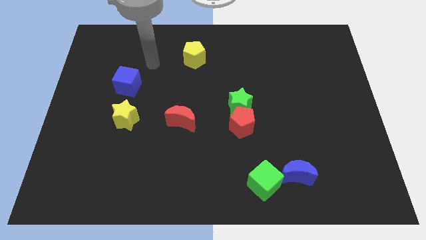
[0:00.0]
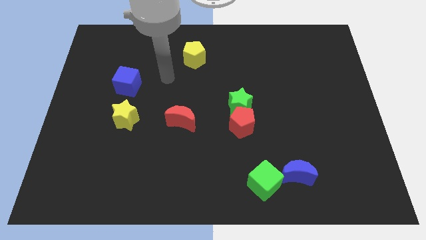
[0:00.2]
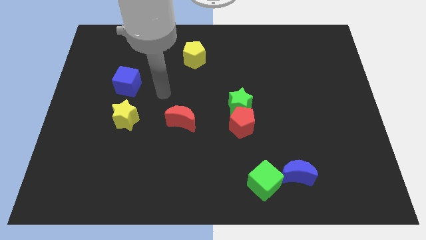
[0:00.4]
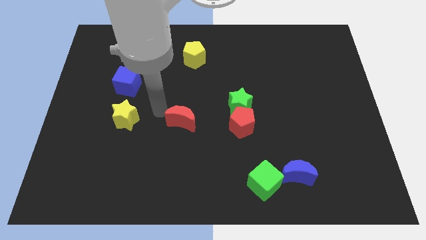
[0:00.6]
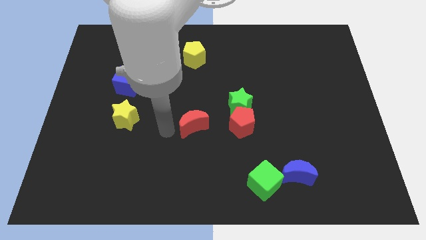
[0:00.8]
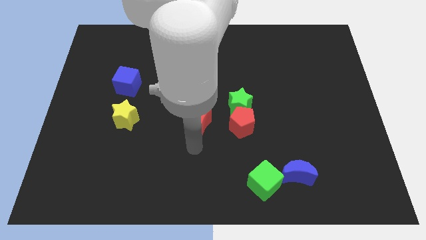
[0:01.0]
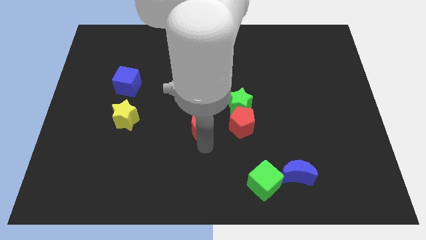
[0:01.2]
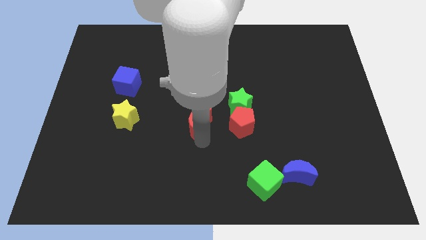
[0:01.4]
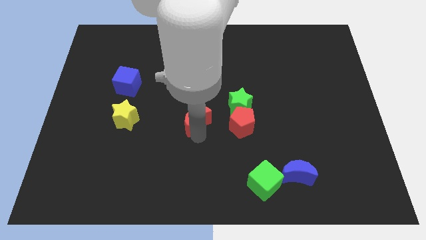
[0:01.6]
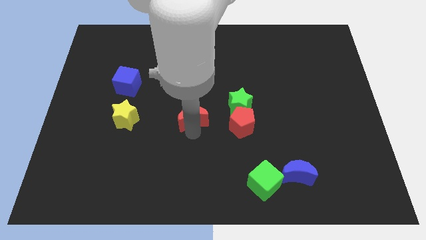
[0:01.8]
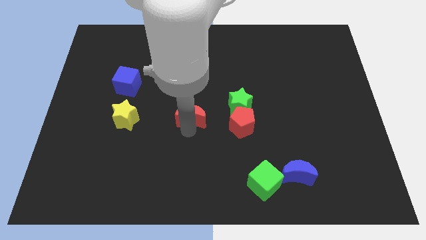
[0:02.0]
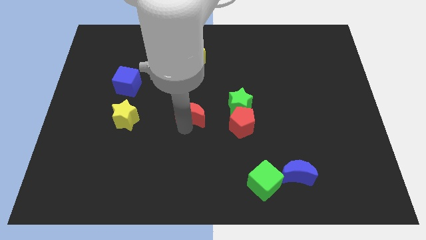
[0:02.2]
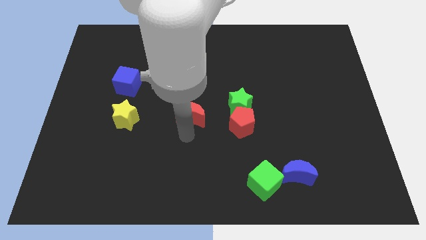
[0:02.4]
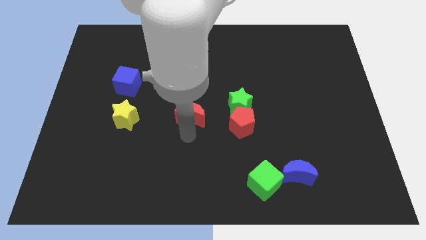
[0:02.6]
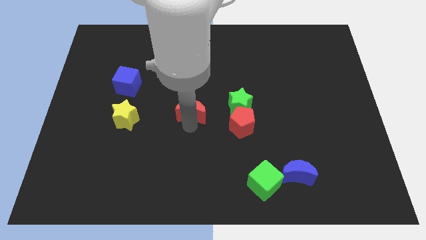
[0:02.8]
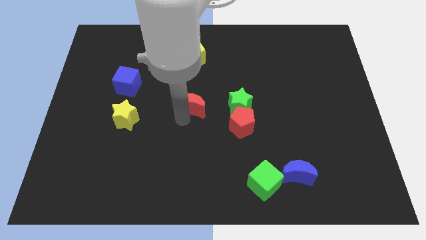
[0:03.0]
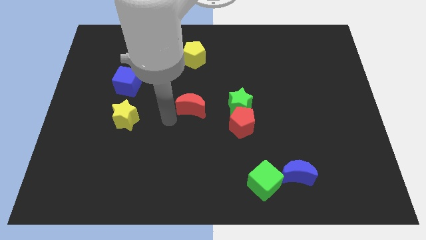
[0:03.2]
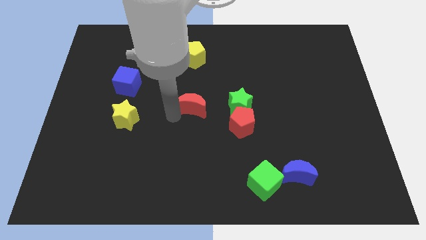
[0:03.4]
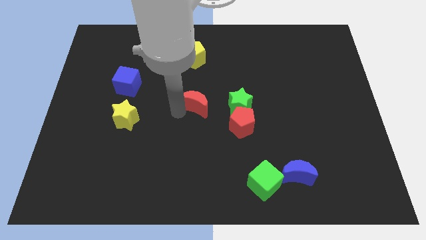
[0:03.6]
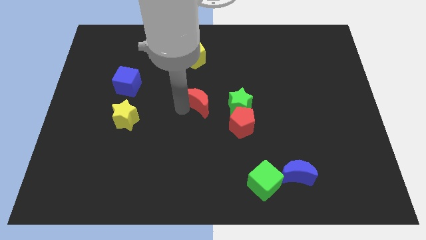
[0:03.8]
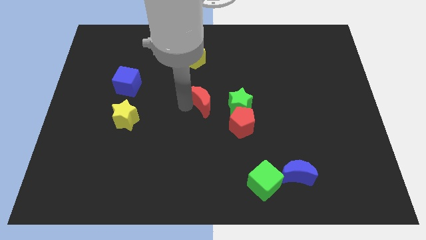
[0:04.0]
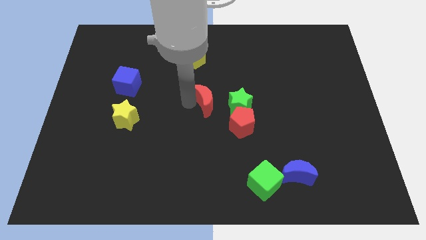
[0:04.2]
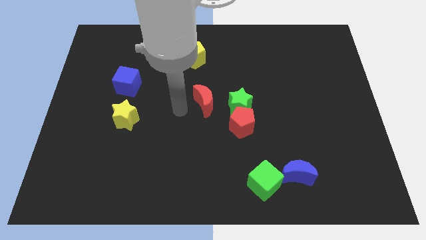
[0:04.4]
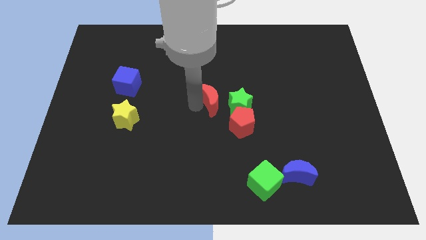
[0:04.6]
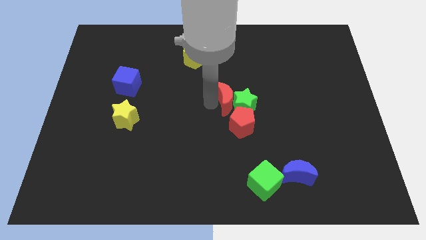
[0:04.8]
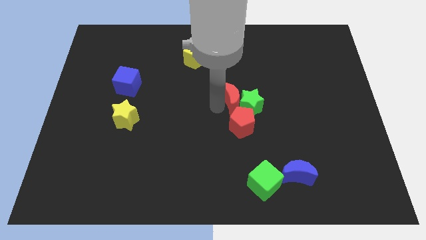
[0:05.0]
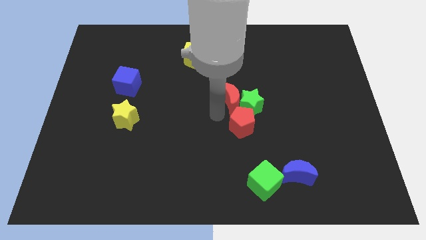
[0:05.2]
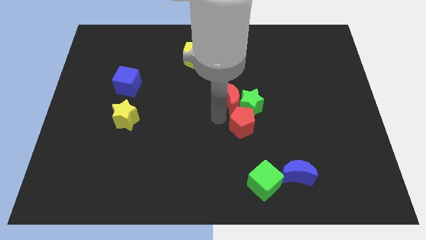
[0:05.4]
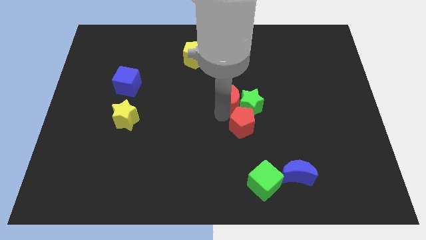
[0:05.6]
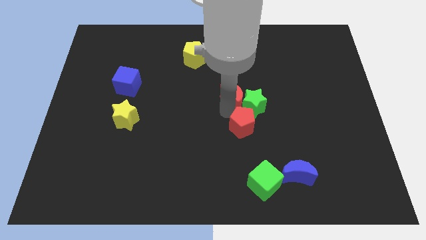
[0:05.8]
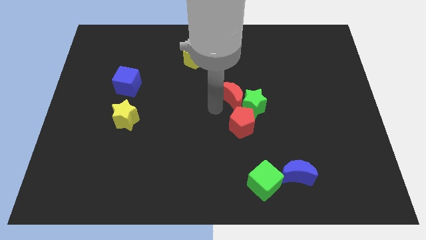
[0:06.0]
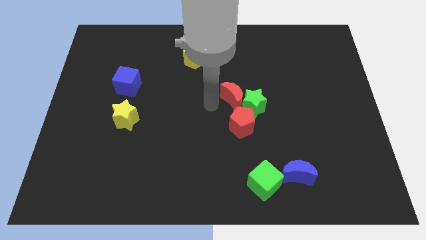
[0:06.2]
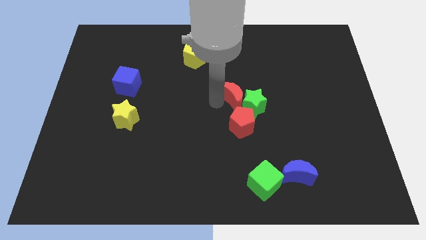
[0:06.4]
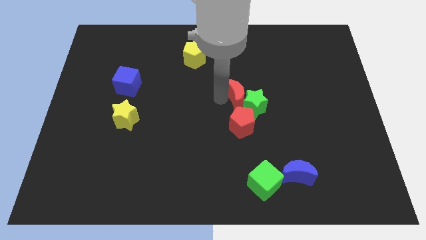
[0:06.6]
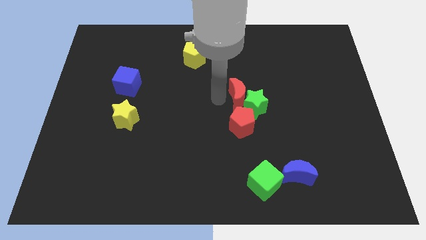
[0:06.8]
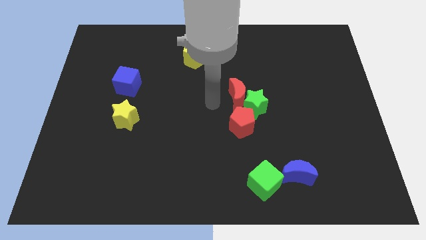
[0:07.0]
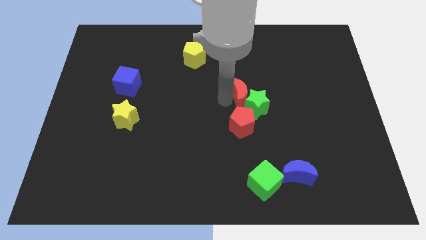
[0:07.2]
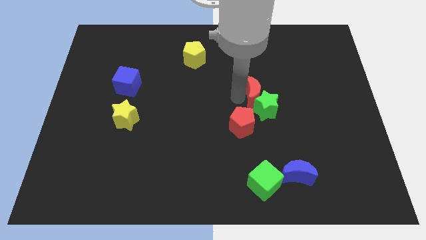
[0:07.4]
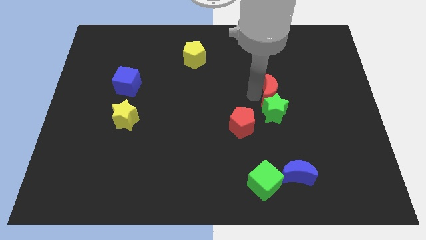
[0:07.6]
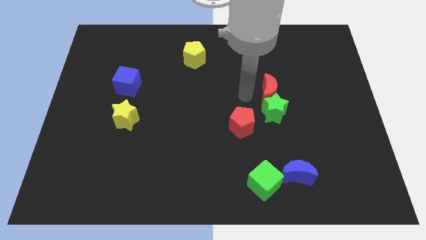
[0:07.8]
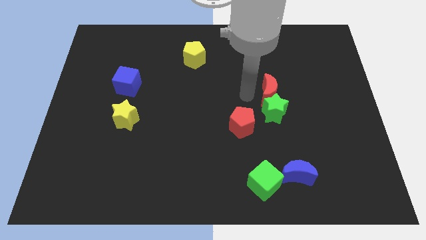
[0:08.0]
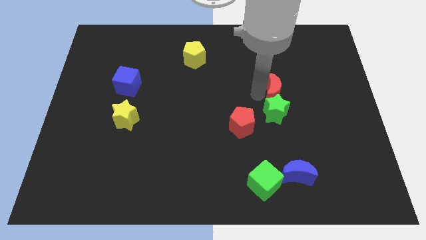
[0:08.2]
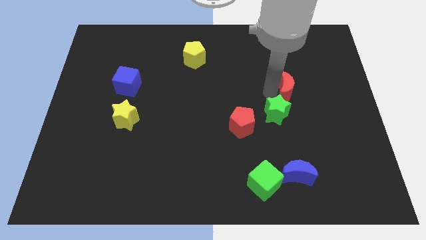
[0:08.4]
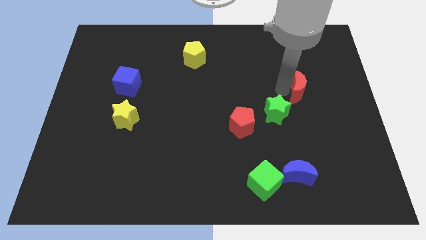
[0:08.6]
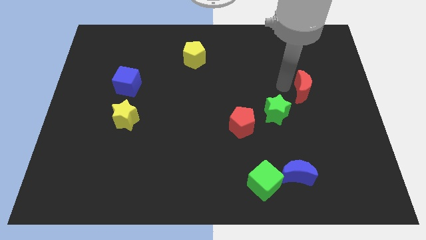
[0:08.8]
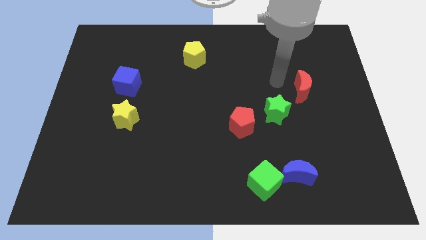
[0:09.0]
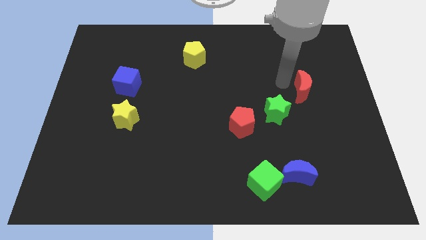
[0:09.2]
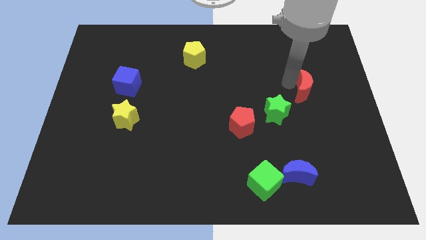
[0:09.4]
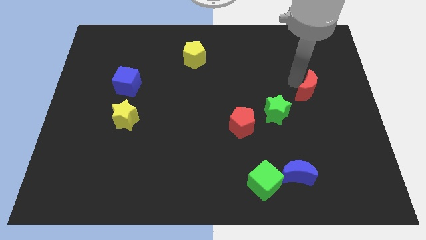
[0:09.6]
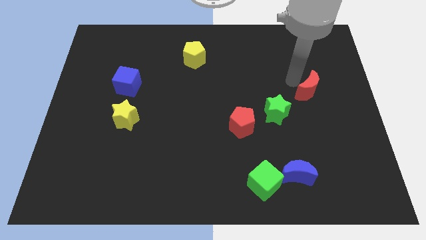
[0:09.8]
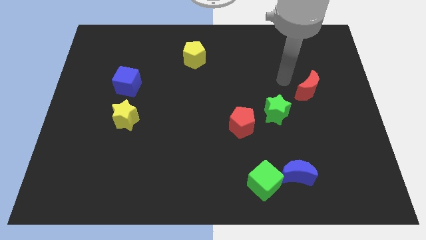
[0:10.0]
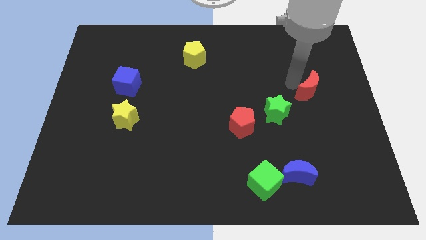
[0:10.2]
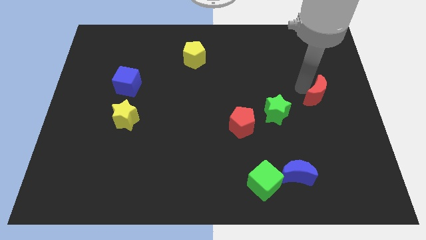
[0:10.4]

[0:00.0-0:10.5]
slide the red moon to the right side of the board

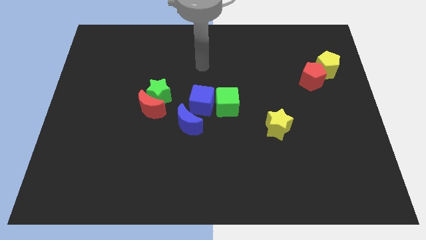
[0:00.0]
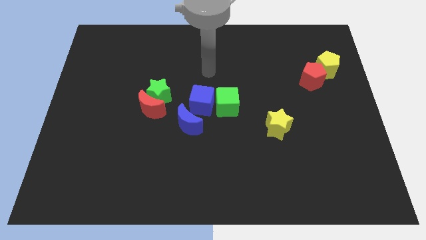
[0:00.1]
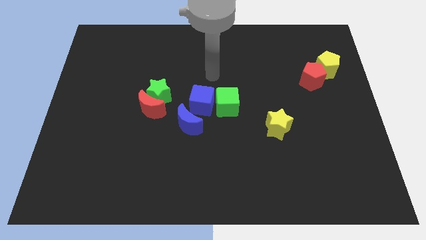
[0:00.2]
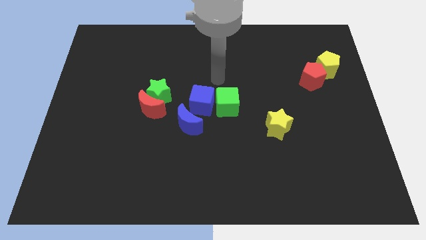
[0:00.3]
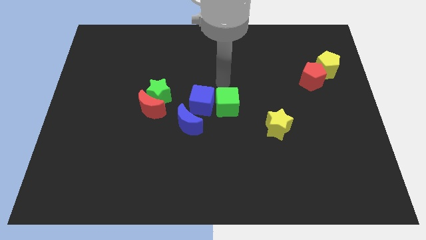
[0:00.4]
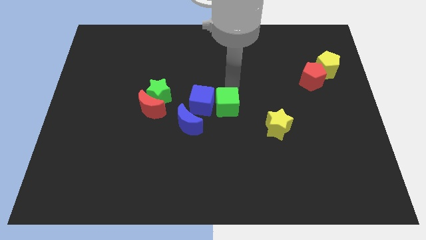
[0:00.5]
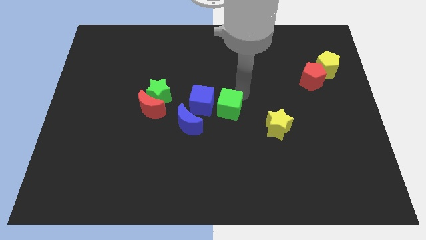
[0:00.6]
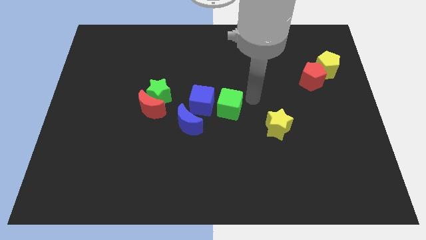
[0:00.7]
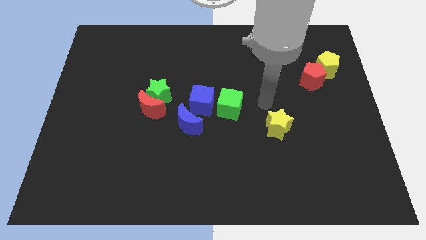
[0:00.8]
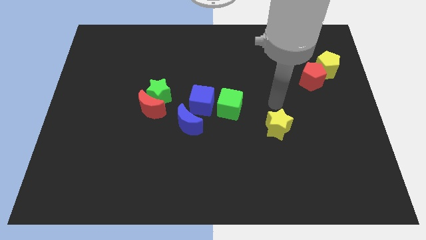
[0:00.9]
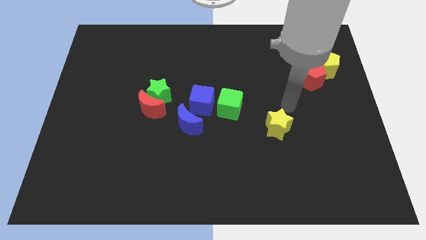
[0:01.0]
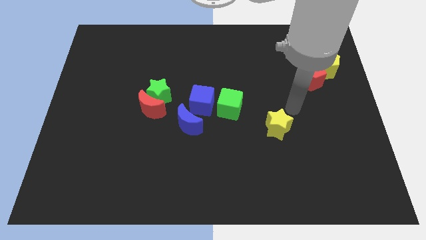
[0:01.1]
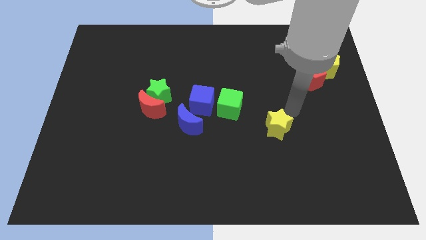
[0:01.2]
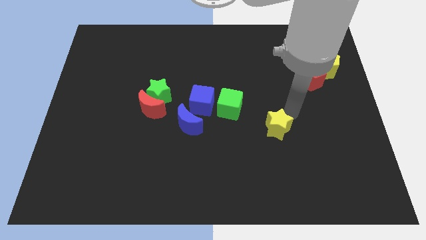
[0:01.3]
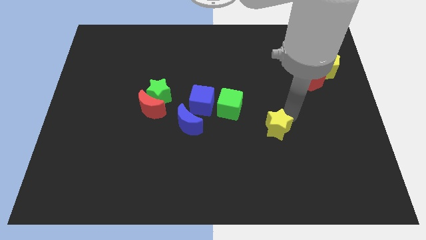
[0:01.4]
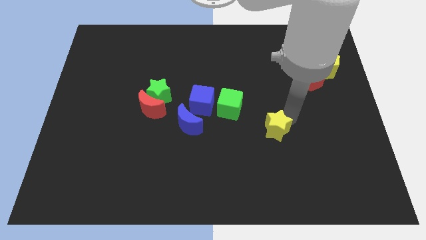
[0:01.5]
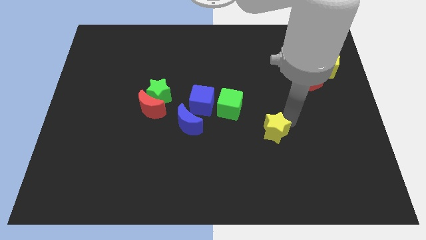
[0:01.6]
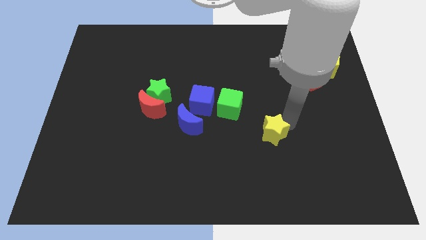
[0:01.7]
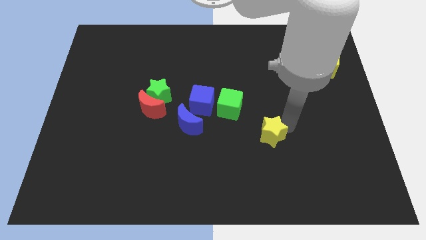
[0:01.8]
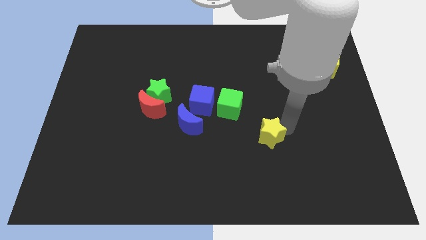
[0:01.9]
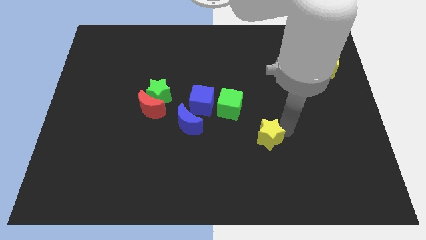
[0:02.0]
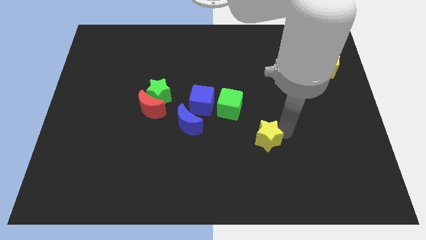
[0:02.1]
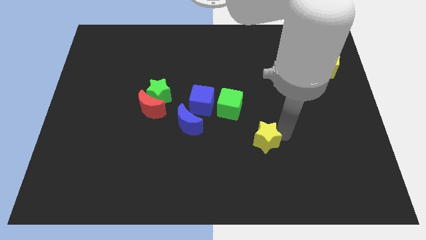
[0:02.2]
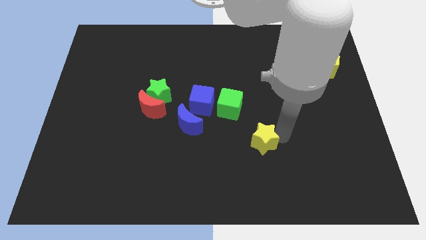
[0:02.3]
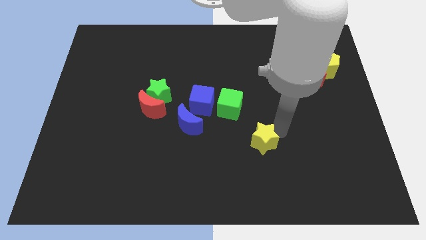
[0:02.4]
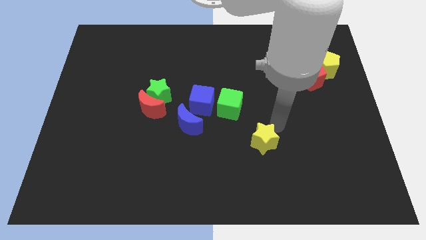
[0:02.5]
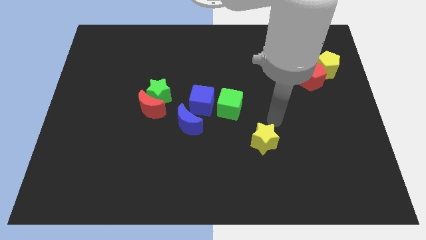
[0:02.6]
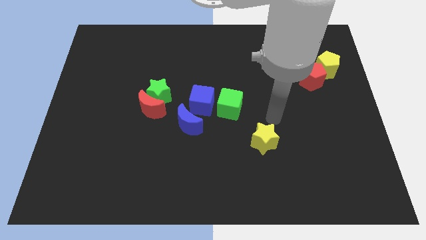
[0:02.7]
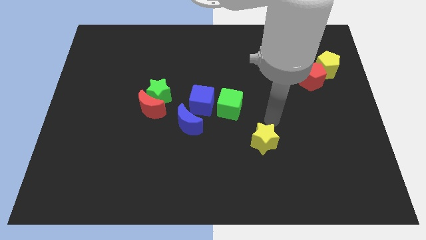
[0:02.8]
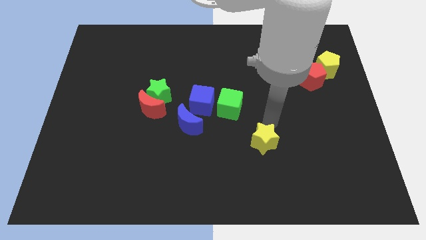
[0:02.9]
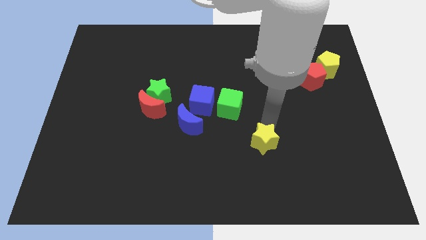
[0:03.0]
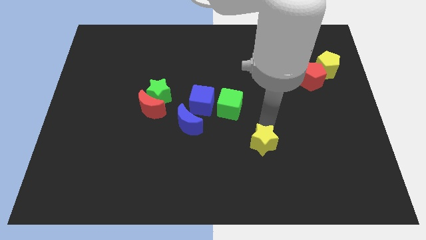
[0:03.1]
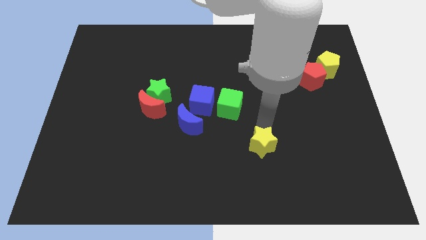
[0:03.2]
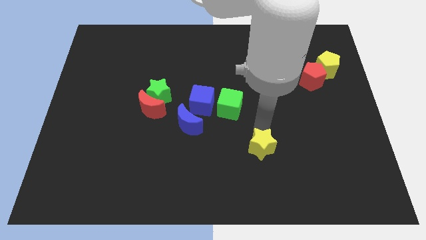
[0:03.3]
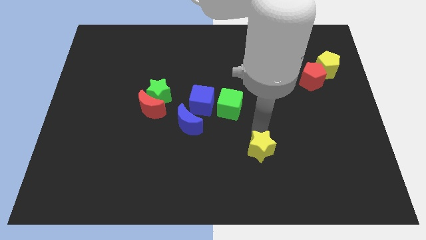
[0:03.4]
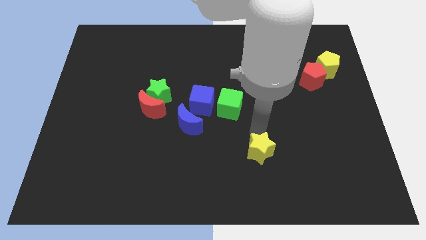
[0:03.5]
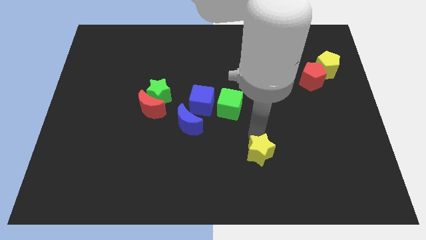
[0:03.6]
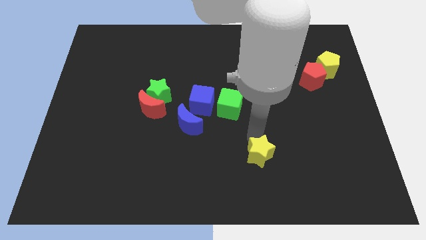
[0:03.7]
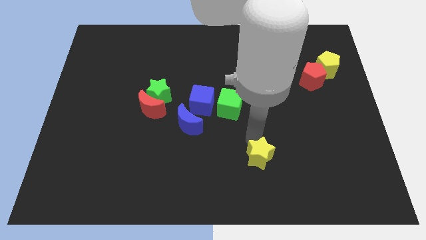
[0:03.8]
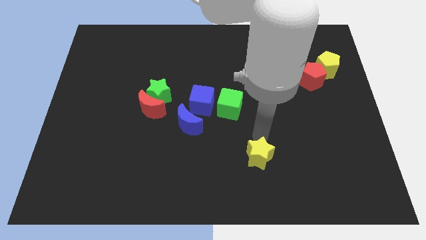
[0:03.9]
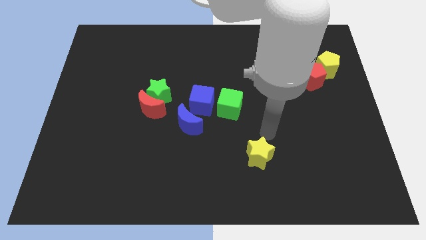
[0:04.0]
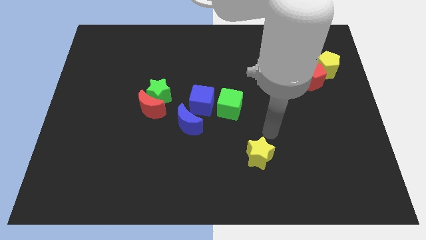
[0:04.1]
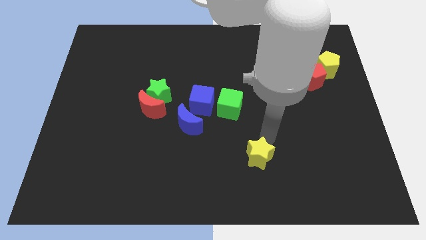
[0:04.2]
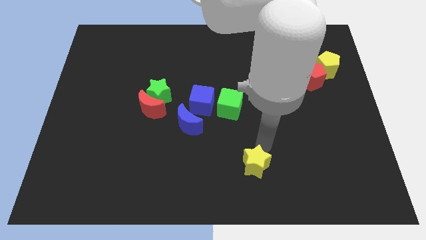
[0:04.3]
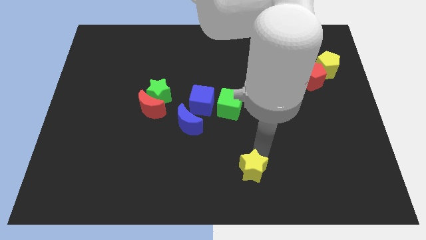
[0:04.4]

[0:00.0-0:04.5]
slide the yellow star to the bottom side
